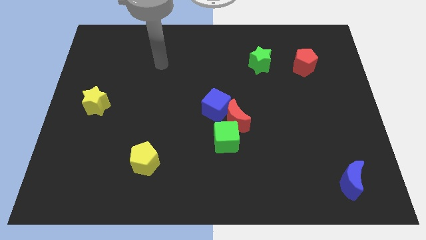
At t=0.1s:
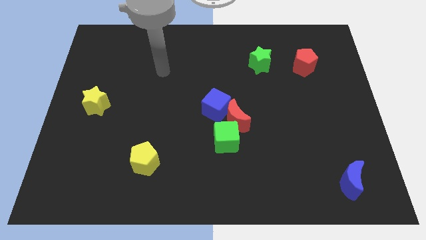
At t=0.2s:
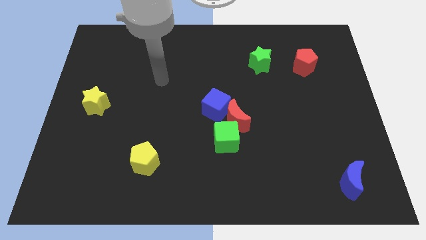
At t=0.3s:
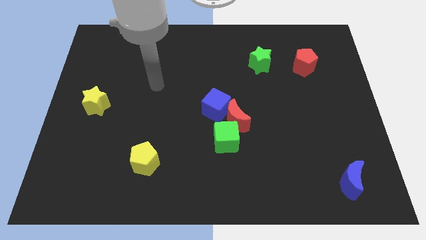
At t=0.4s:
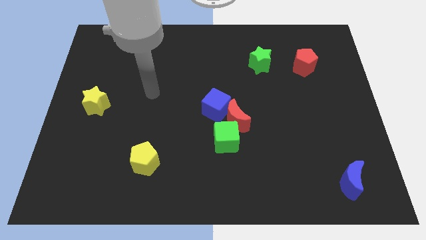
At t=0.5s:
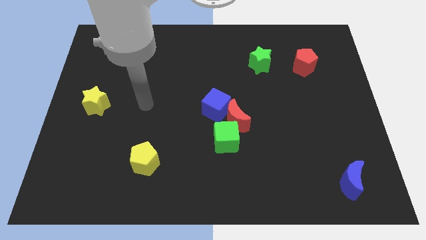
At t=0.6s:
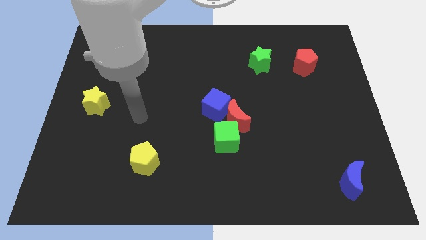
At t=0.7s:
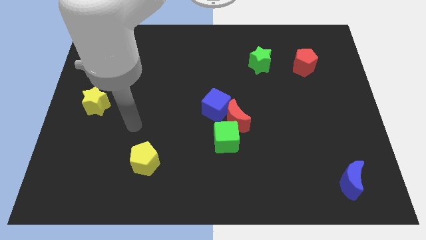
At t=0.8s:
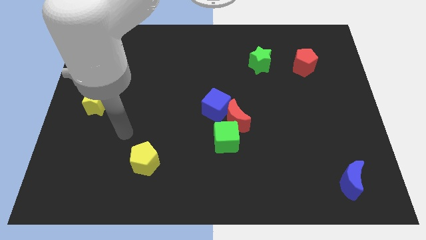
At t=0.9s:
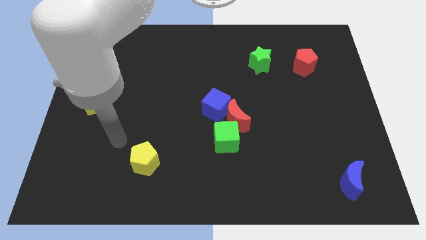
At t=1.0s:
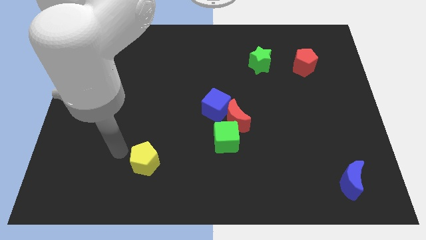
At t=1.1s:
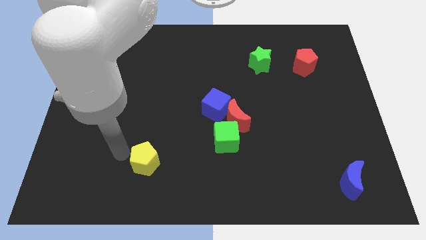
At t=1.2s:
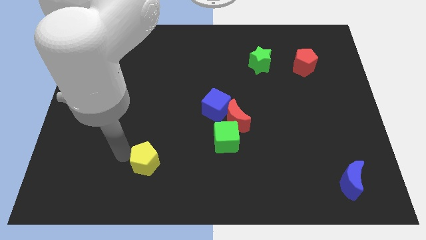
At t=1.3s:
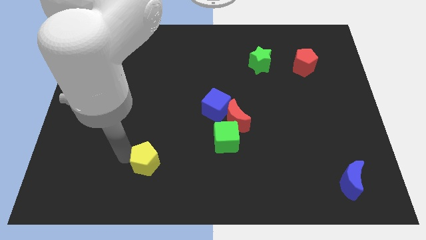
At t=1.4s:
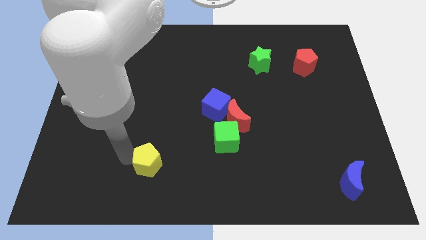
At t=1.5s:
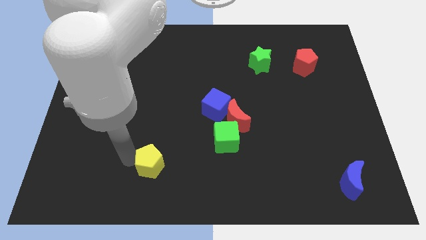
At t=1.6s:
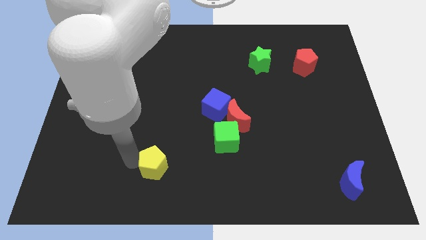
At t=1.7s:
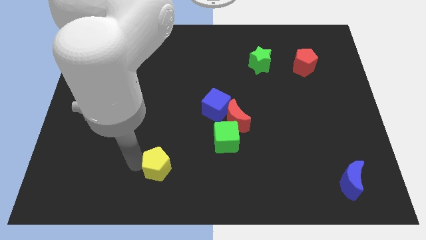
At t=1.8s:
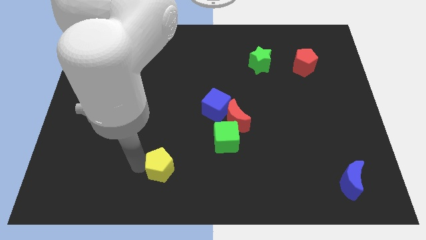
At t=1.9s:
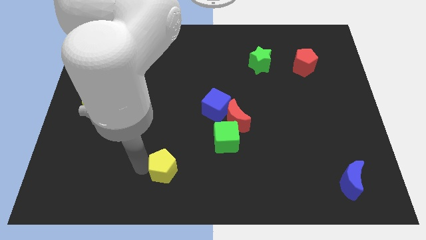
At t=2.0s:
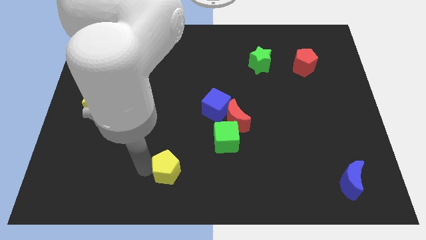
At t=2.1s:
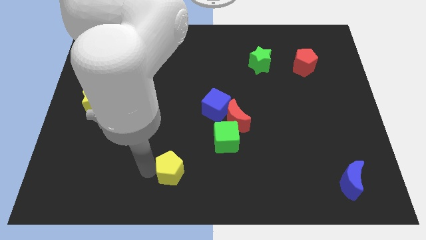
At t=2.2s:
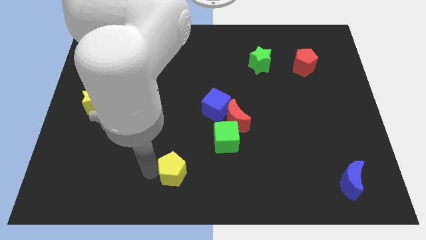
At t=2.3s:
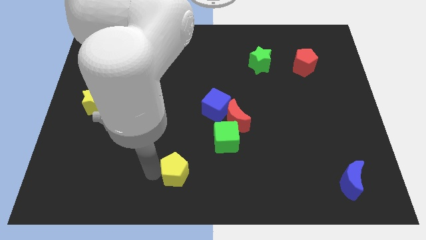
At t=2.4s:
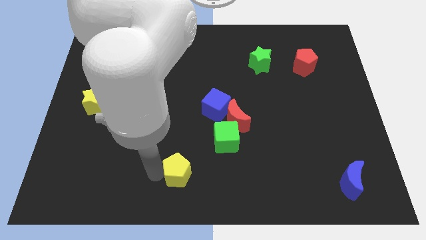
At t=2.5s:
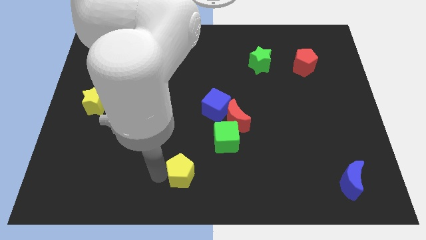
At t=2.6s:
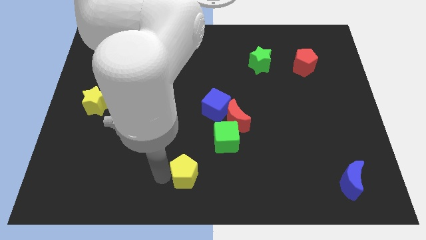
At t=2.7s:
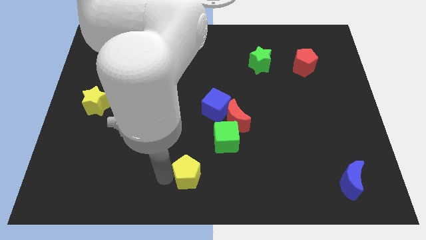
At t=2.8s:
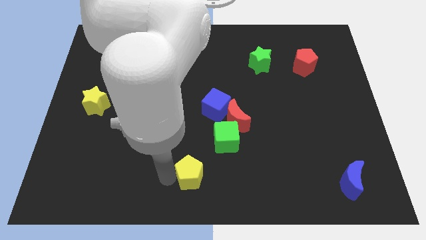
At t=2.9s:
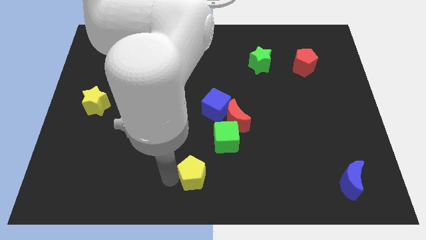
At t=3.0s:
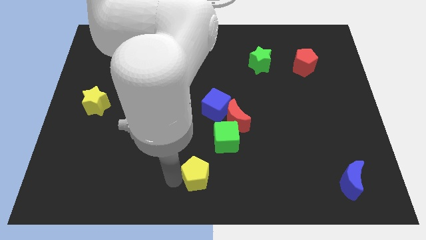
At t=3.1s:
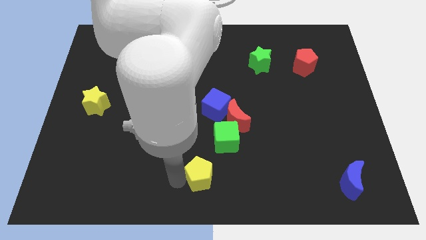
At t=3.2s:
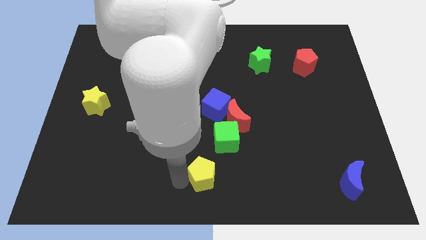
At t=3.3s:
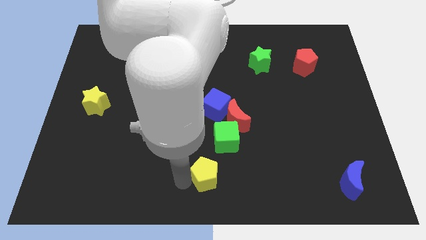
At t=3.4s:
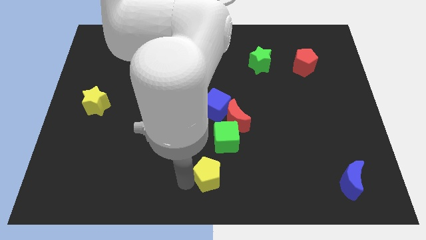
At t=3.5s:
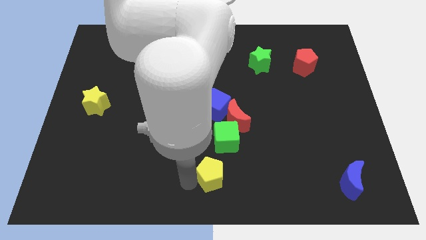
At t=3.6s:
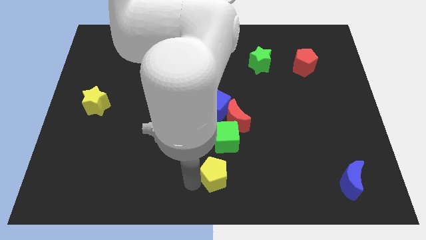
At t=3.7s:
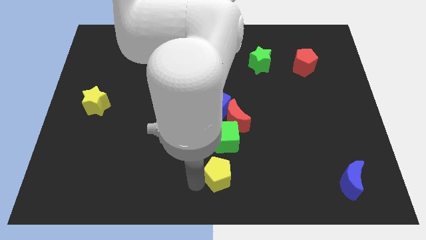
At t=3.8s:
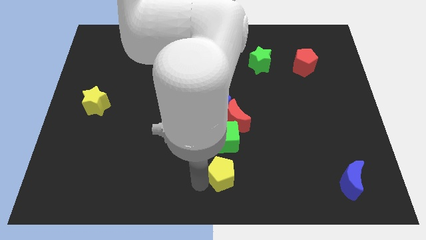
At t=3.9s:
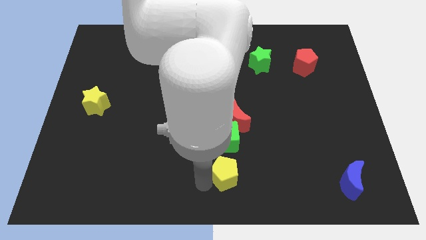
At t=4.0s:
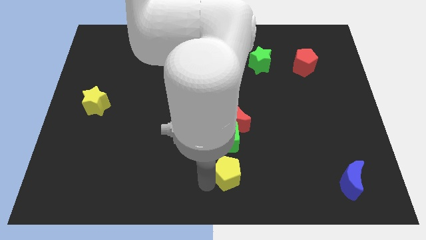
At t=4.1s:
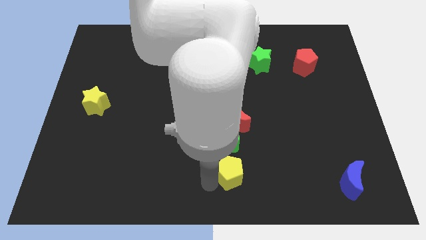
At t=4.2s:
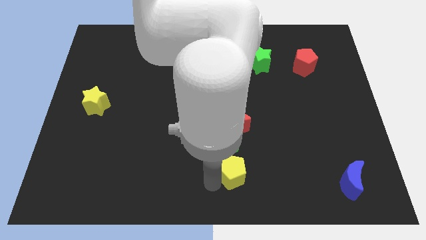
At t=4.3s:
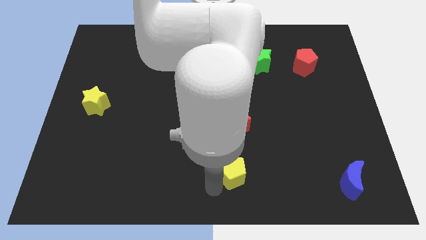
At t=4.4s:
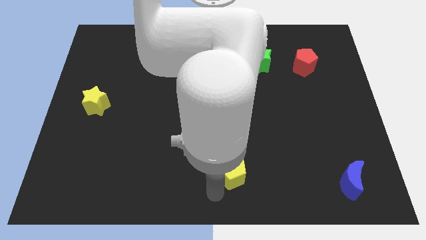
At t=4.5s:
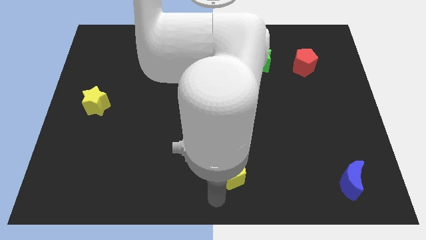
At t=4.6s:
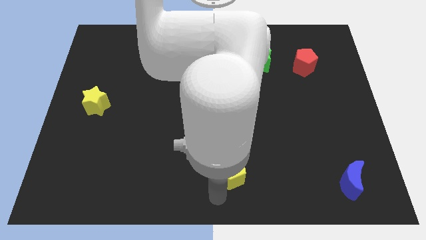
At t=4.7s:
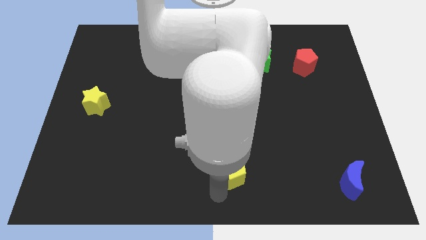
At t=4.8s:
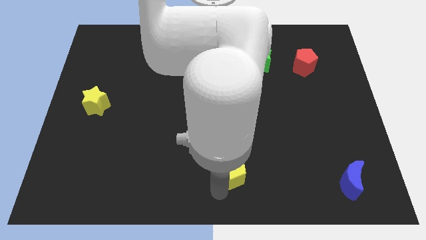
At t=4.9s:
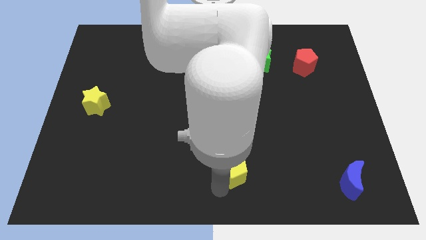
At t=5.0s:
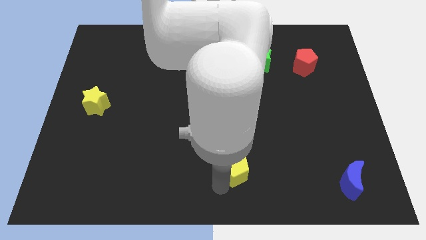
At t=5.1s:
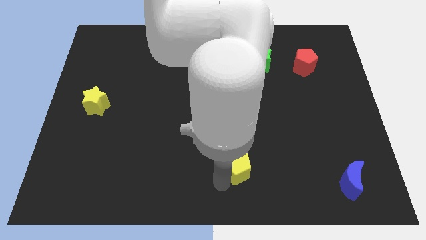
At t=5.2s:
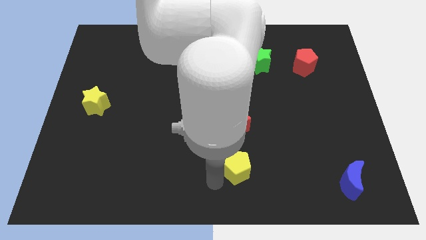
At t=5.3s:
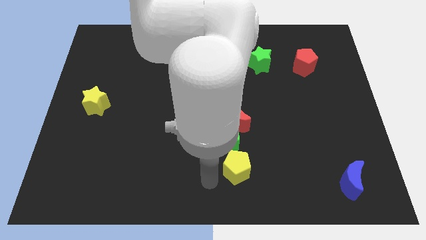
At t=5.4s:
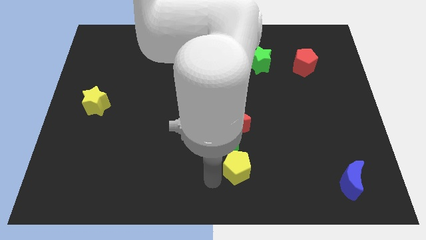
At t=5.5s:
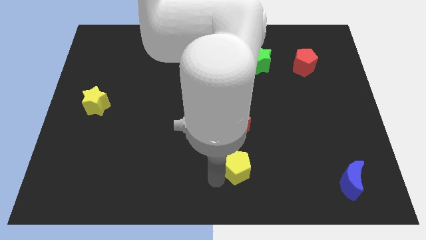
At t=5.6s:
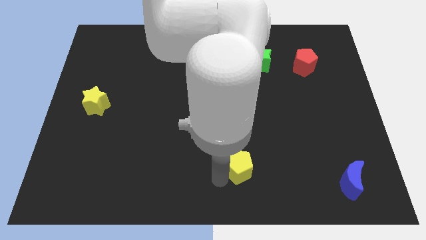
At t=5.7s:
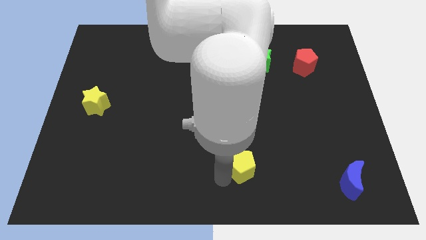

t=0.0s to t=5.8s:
push the yellow pentagon to the right

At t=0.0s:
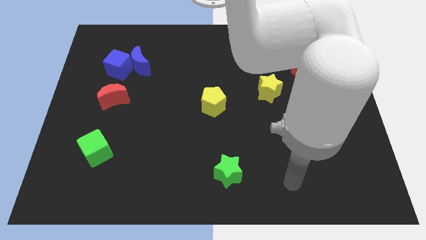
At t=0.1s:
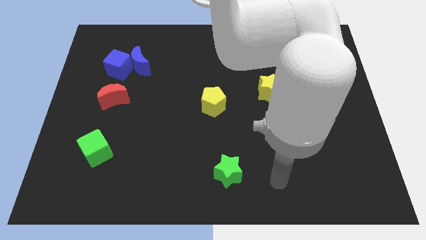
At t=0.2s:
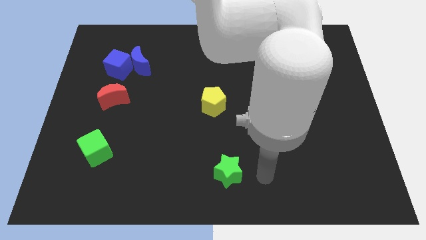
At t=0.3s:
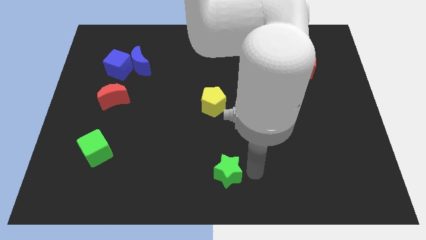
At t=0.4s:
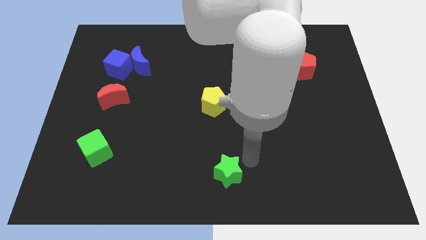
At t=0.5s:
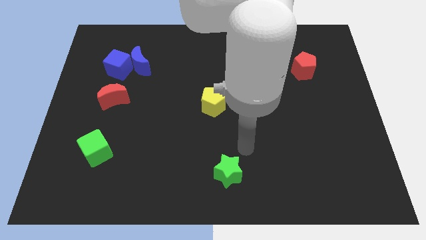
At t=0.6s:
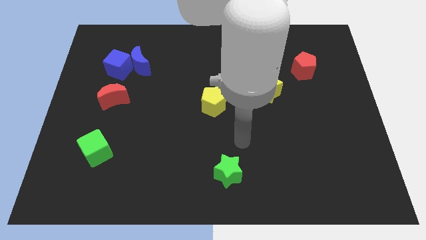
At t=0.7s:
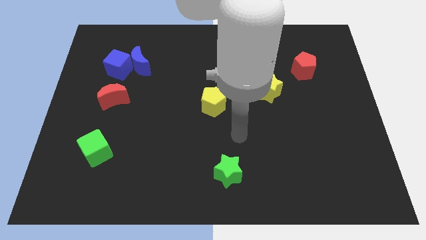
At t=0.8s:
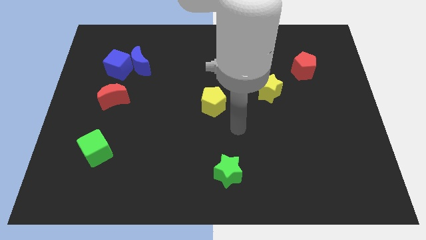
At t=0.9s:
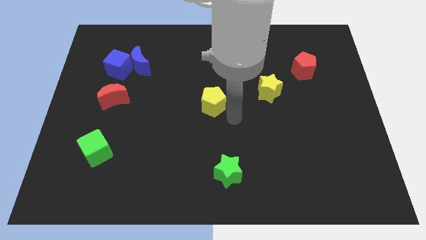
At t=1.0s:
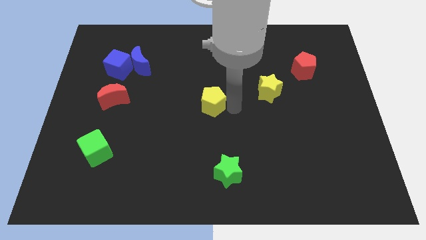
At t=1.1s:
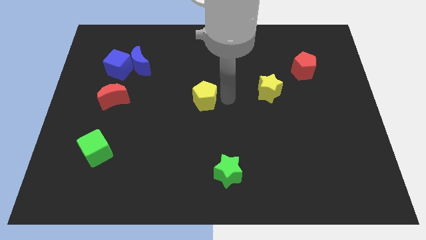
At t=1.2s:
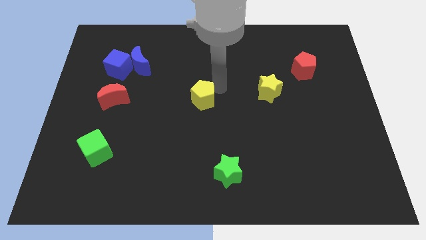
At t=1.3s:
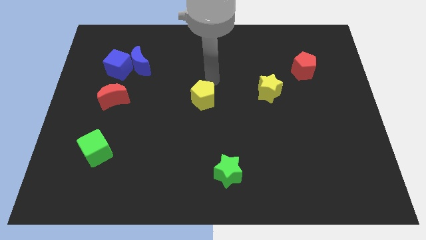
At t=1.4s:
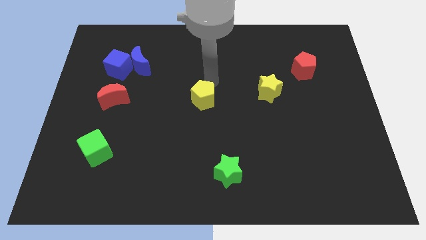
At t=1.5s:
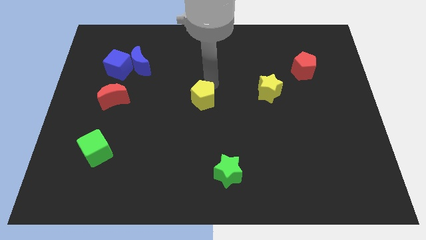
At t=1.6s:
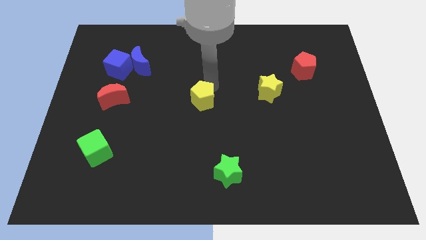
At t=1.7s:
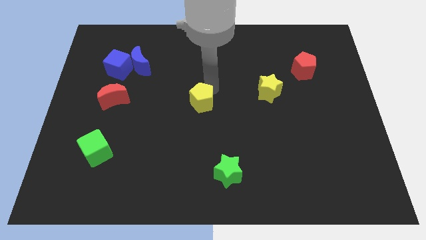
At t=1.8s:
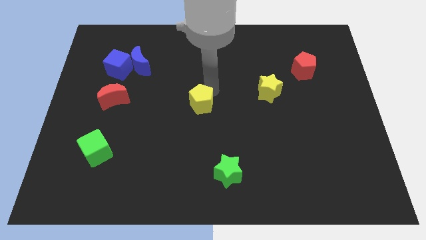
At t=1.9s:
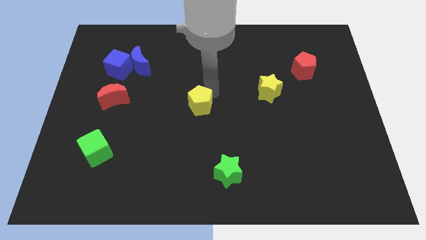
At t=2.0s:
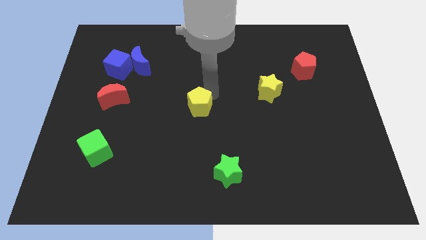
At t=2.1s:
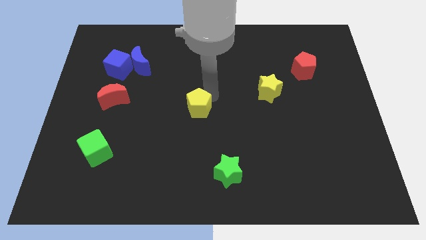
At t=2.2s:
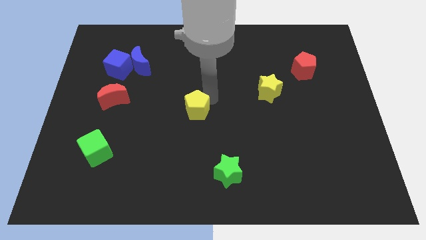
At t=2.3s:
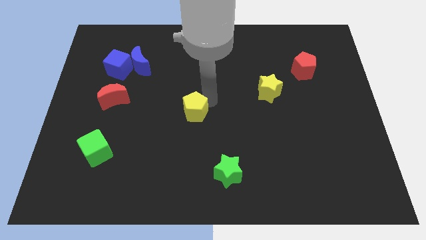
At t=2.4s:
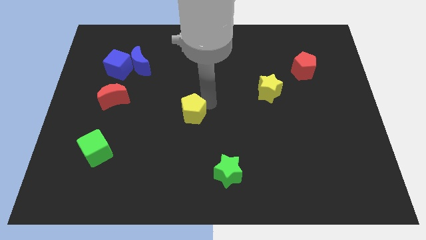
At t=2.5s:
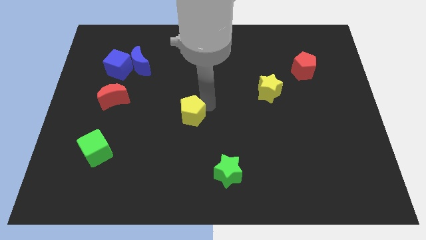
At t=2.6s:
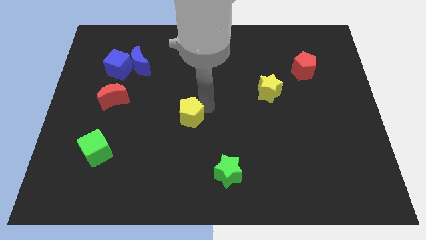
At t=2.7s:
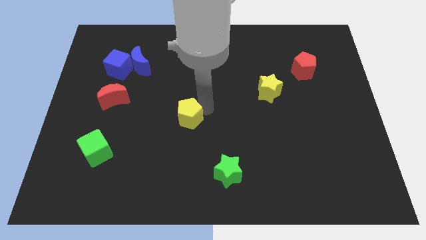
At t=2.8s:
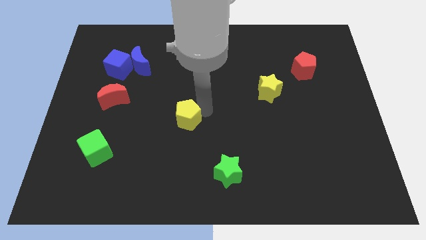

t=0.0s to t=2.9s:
slightly push the yellow pentagon diagonally downwards and left
